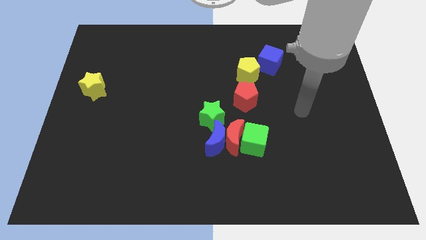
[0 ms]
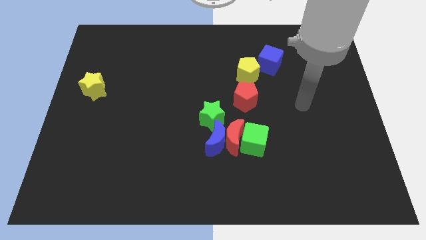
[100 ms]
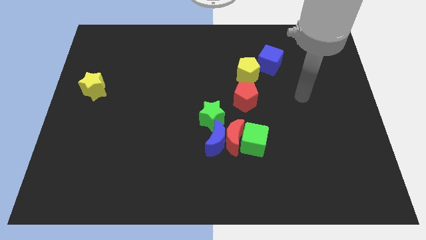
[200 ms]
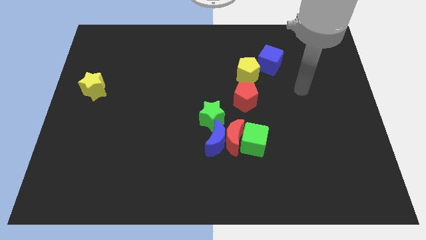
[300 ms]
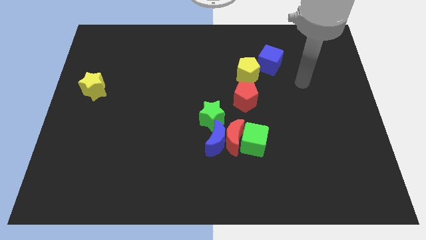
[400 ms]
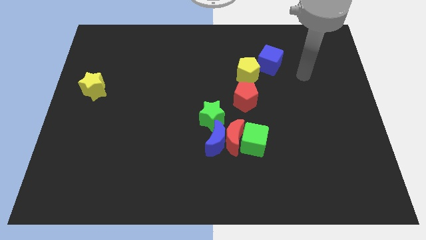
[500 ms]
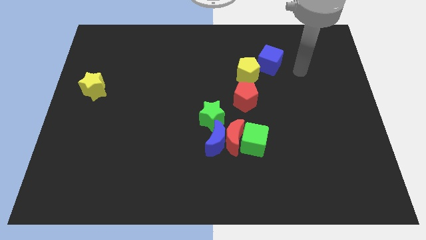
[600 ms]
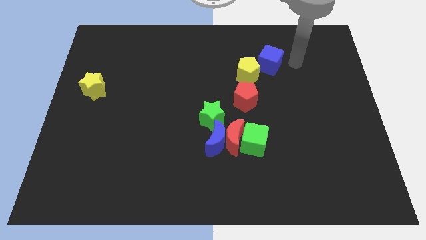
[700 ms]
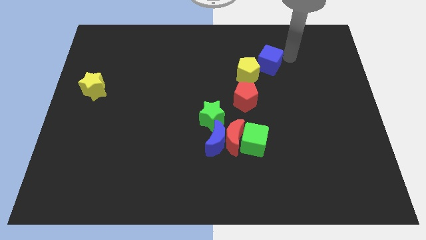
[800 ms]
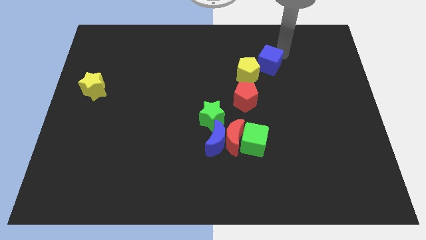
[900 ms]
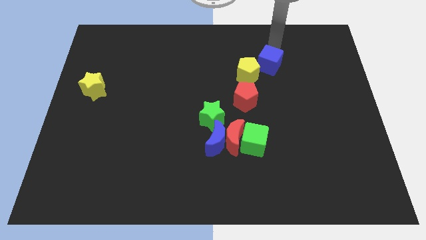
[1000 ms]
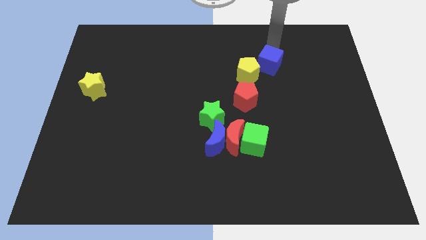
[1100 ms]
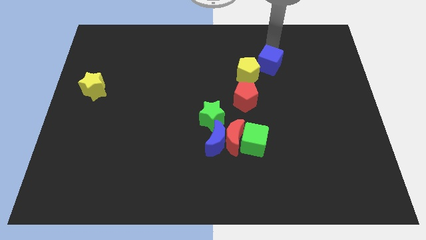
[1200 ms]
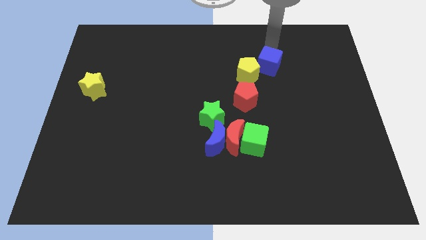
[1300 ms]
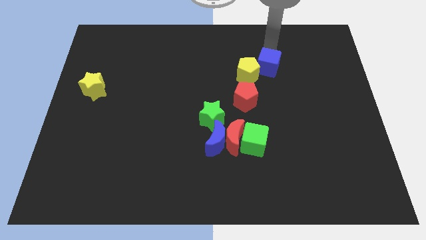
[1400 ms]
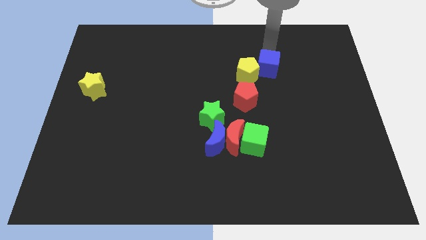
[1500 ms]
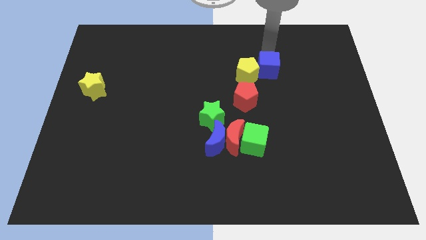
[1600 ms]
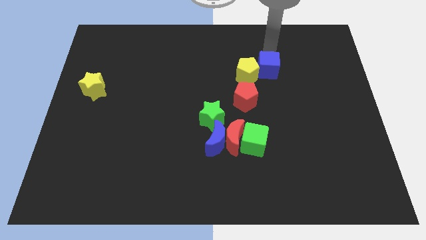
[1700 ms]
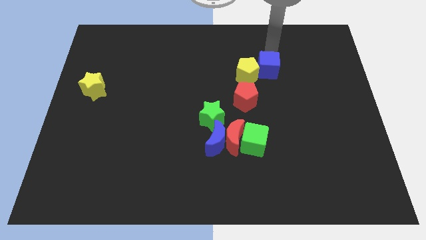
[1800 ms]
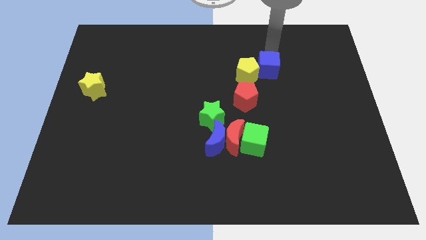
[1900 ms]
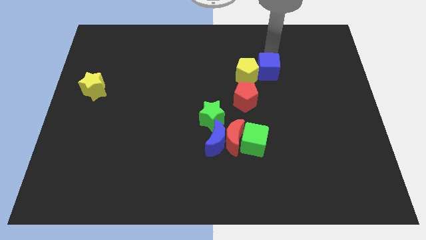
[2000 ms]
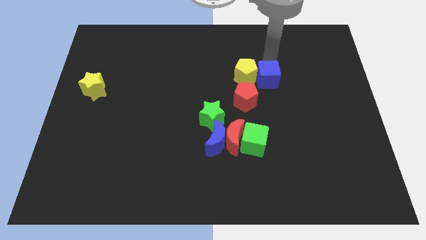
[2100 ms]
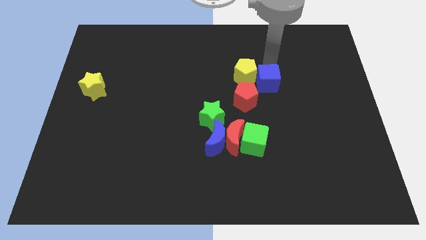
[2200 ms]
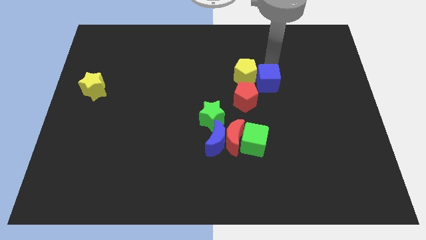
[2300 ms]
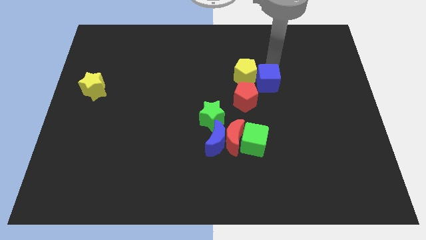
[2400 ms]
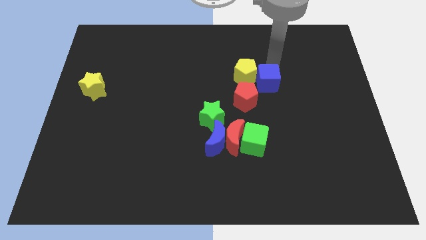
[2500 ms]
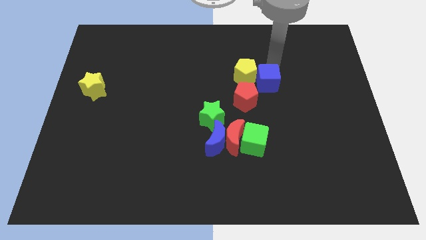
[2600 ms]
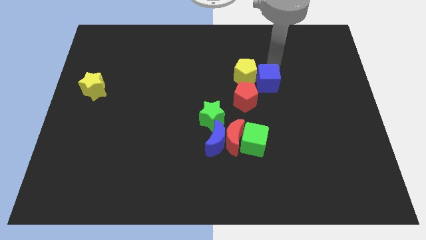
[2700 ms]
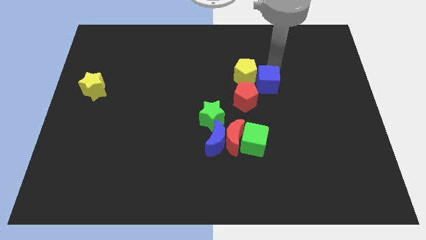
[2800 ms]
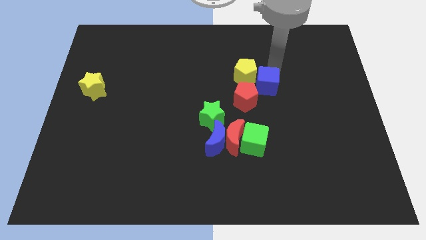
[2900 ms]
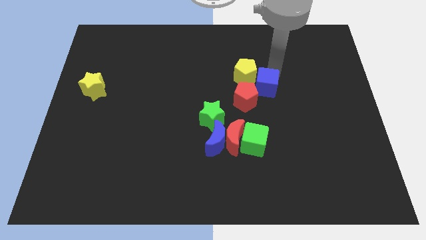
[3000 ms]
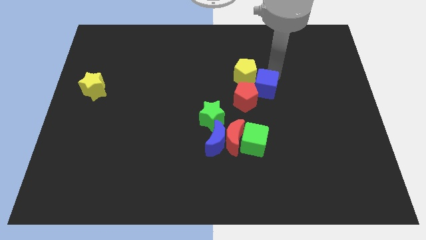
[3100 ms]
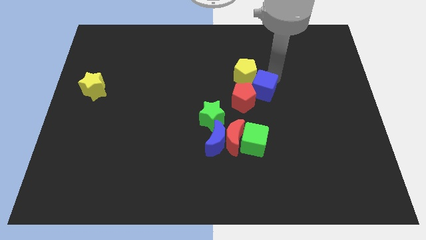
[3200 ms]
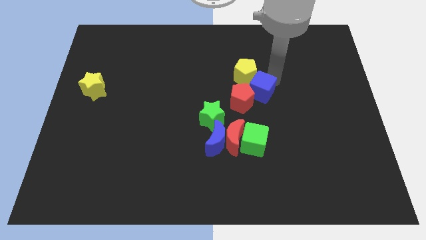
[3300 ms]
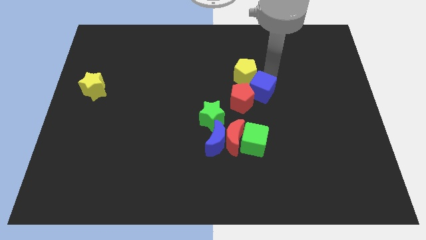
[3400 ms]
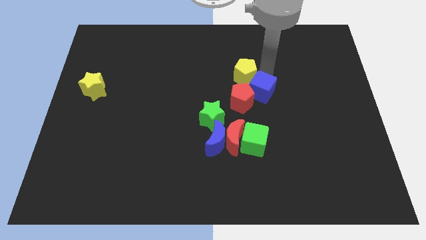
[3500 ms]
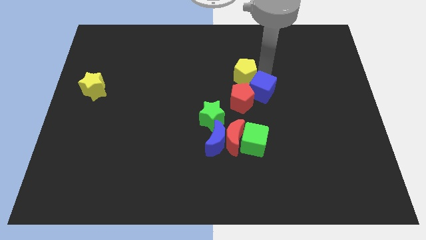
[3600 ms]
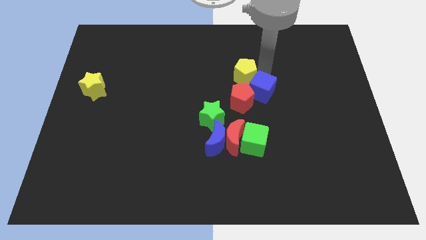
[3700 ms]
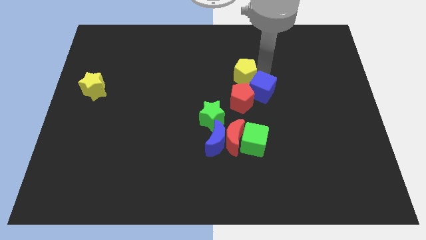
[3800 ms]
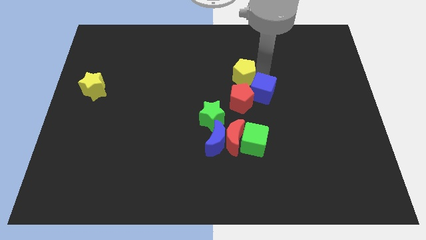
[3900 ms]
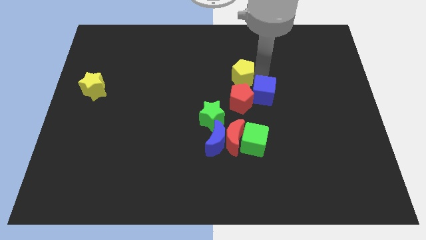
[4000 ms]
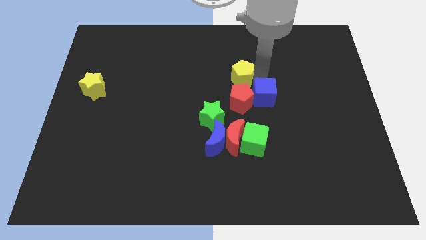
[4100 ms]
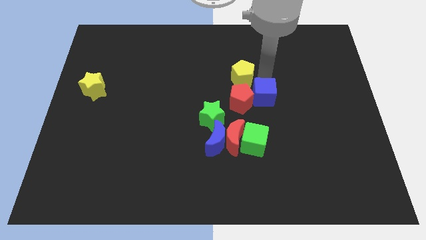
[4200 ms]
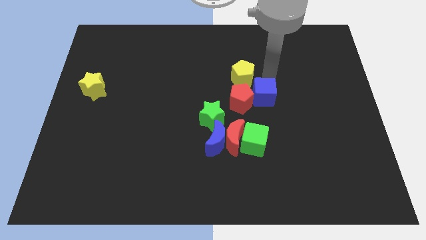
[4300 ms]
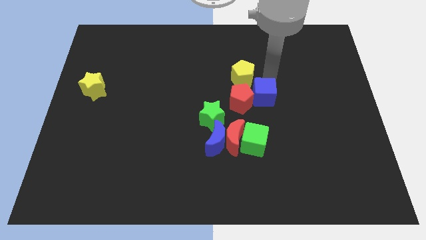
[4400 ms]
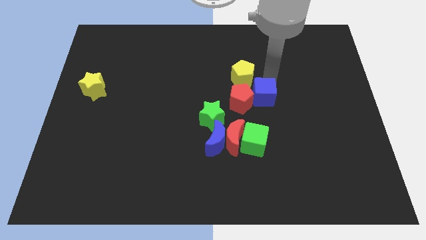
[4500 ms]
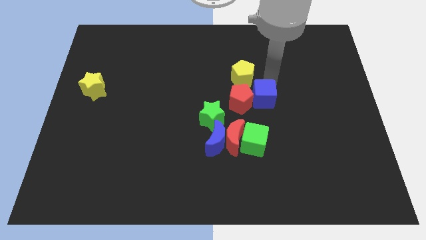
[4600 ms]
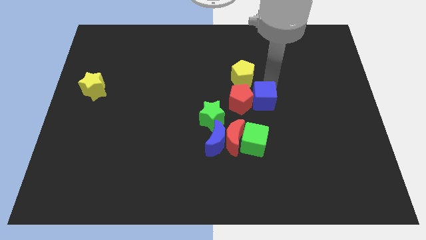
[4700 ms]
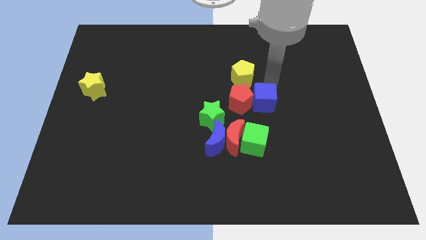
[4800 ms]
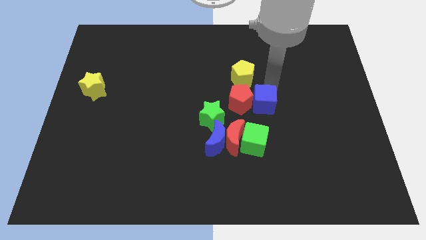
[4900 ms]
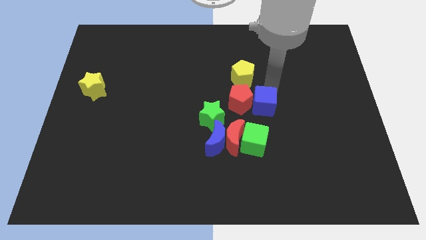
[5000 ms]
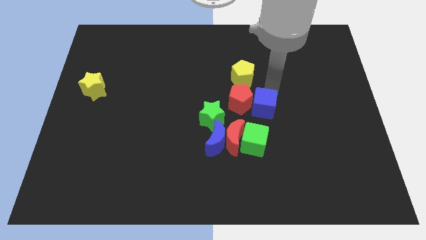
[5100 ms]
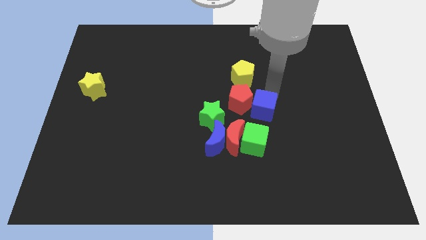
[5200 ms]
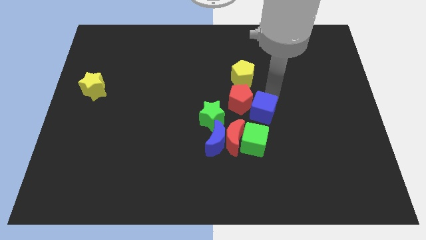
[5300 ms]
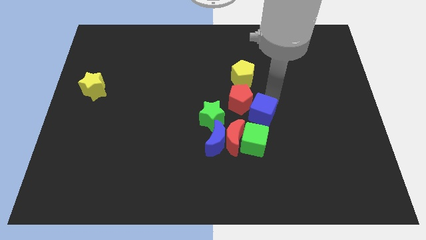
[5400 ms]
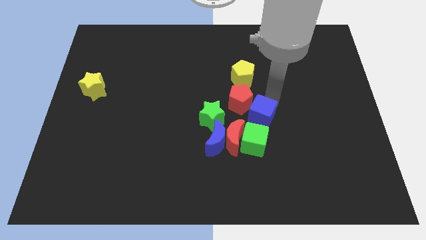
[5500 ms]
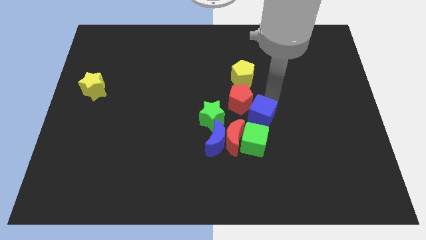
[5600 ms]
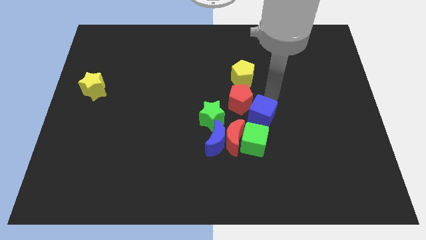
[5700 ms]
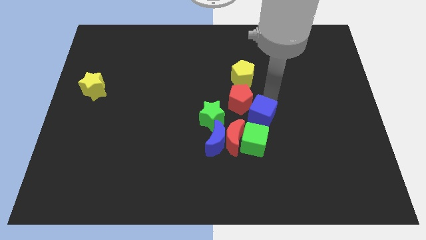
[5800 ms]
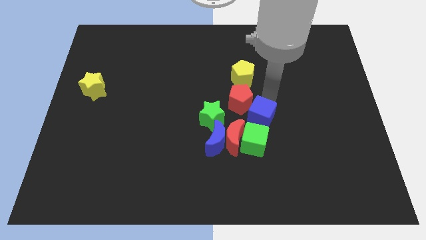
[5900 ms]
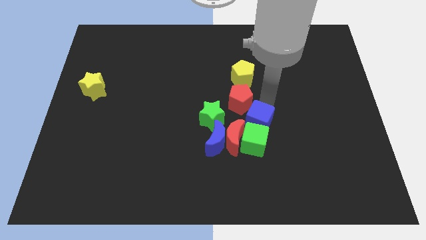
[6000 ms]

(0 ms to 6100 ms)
put the blue cube next to the green cube
